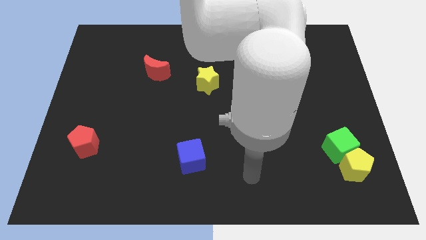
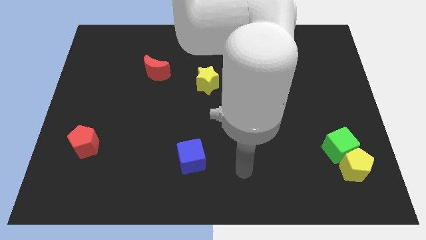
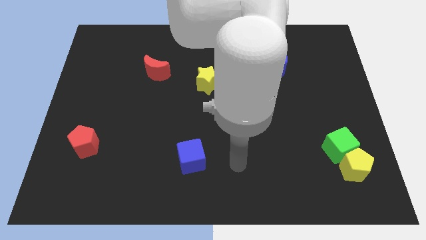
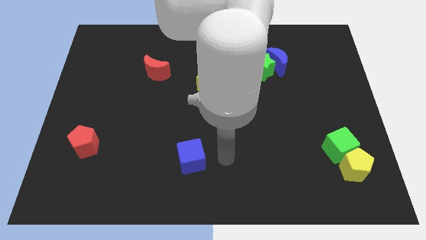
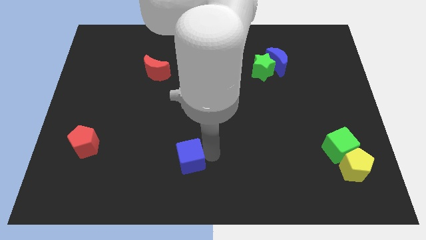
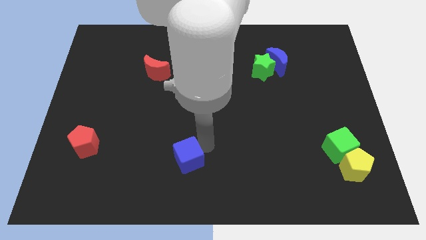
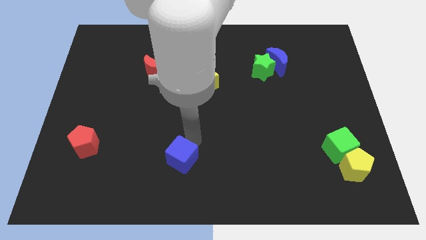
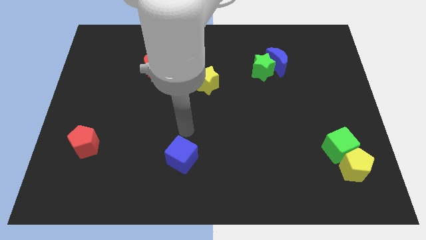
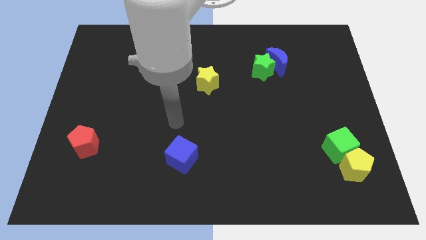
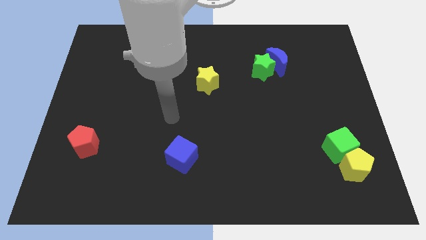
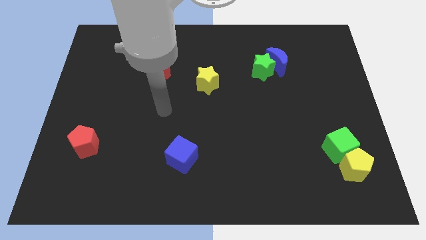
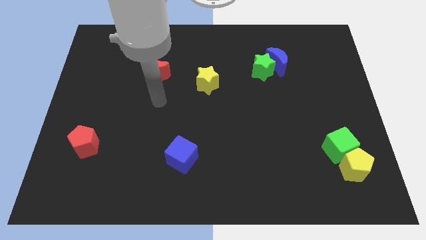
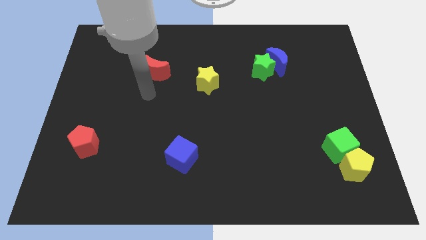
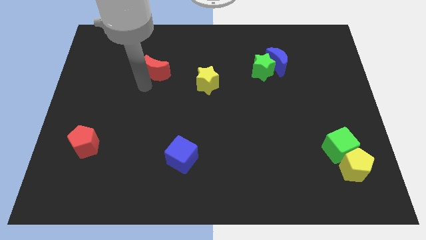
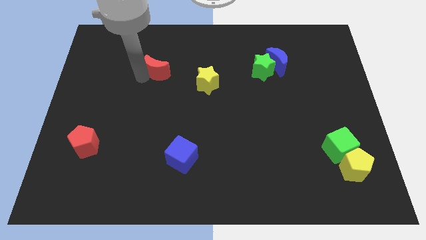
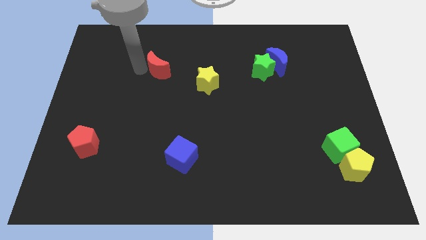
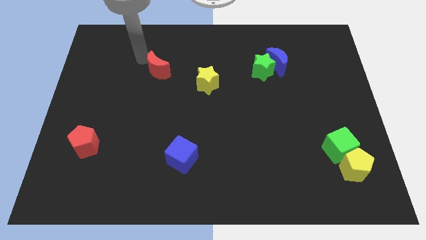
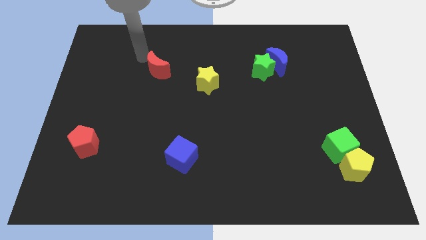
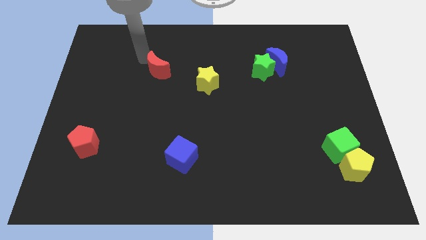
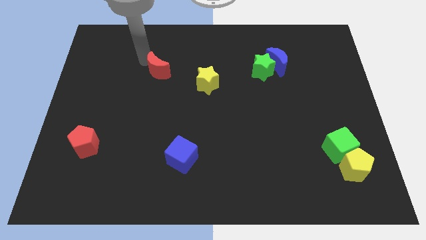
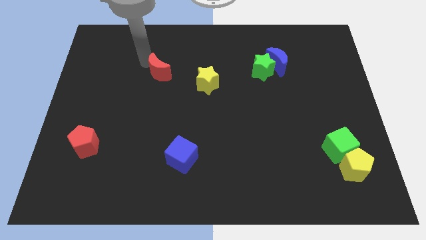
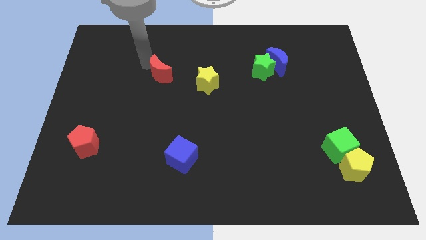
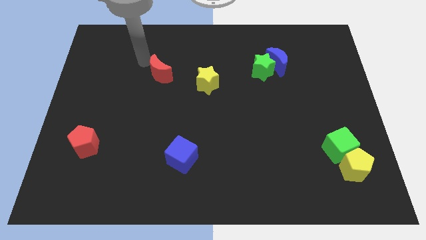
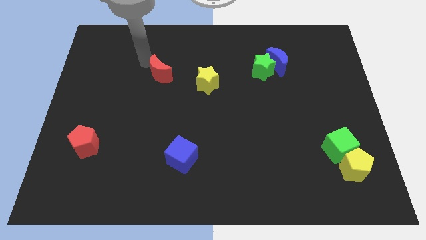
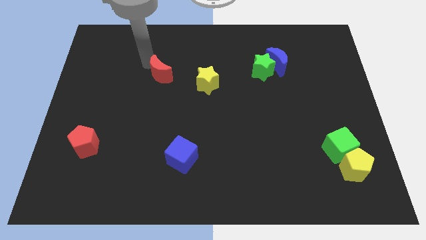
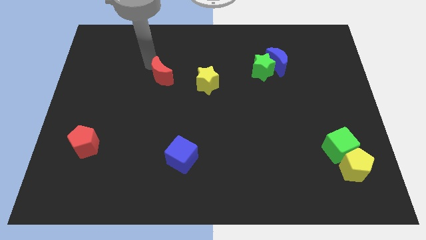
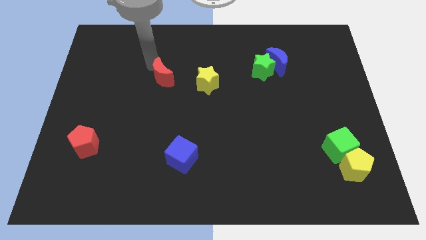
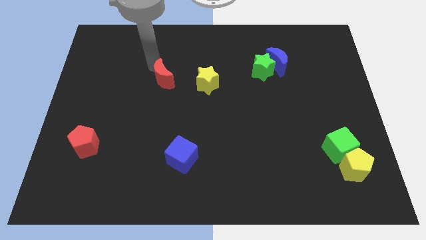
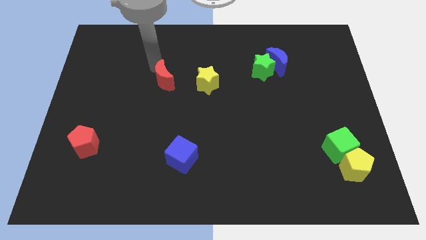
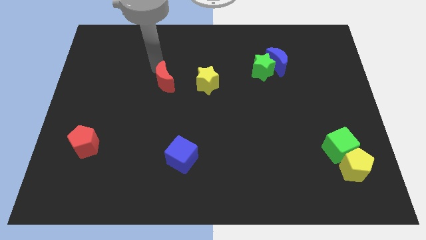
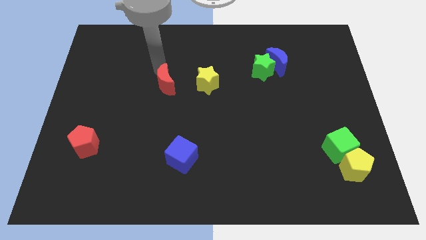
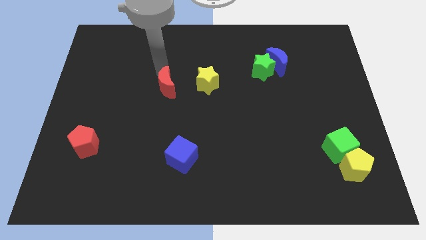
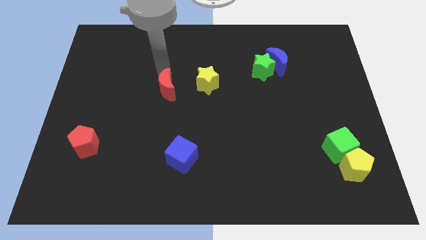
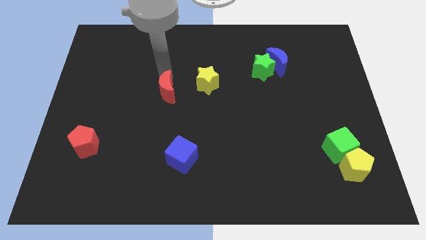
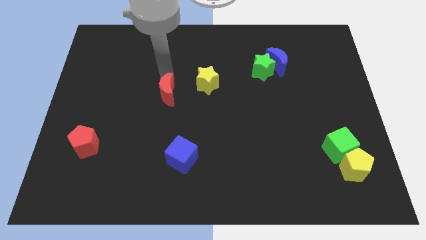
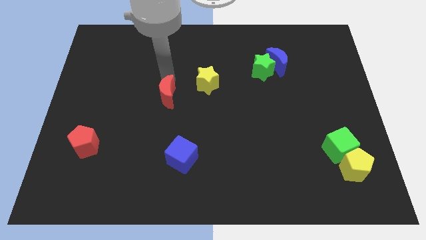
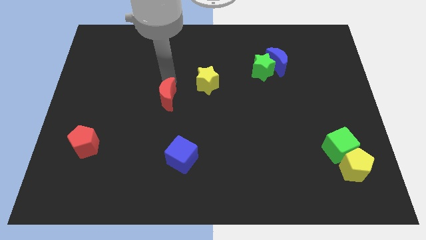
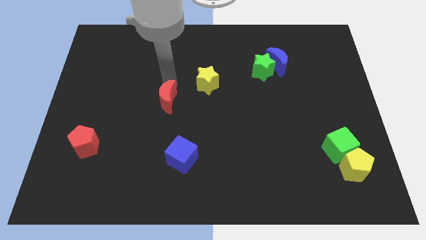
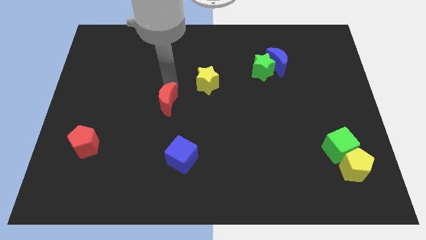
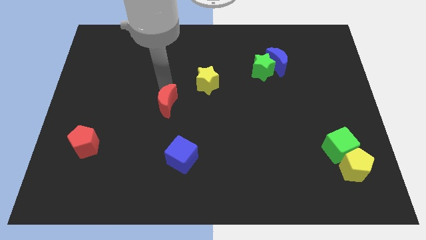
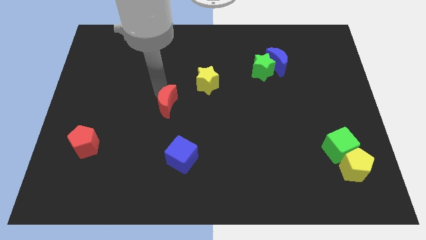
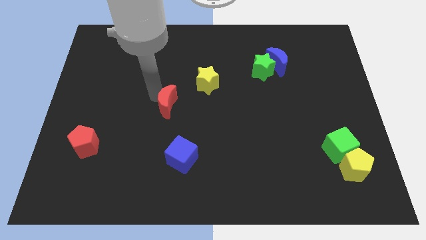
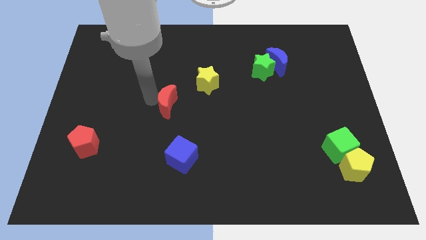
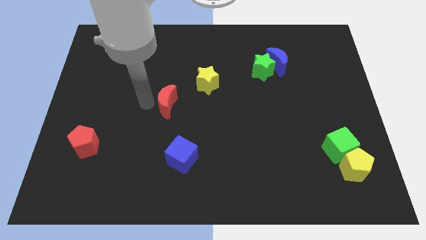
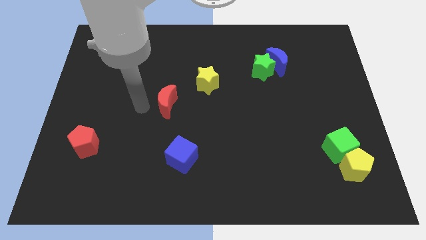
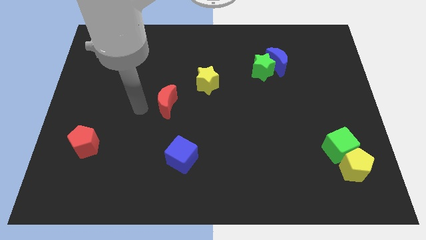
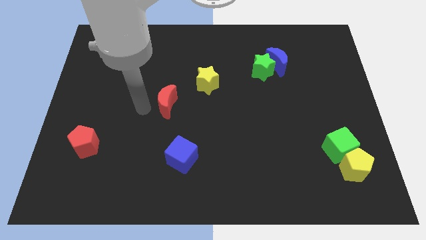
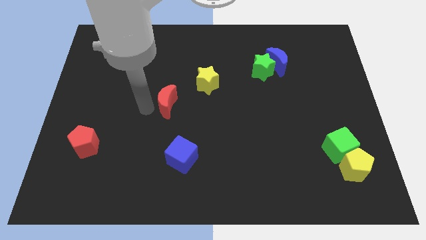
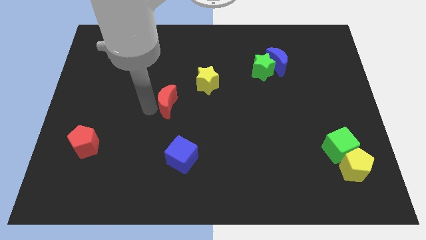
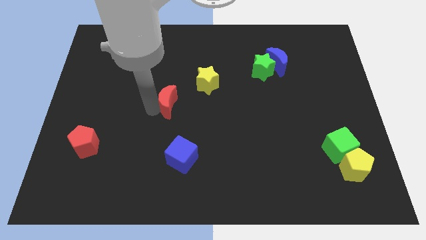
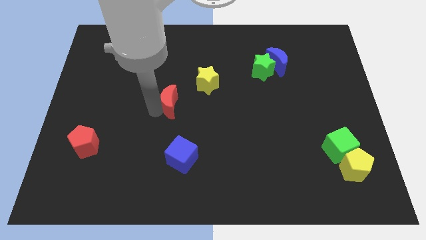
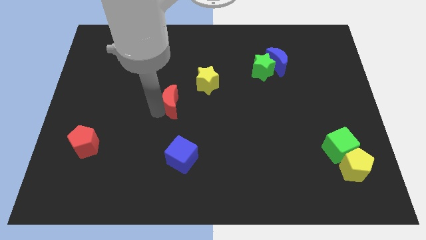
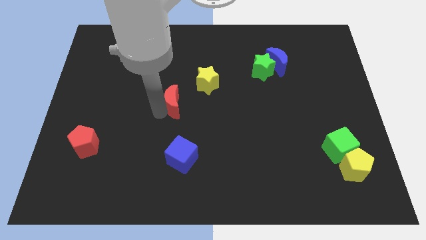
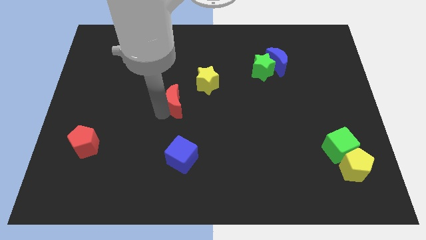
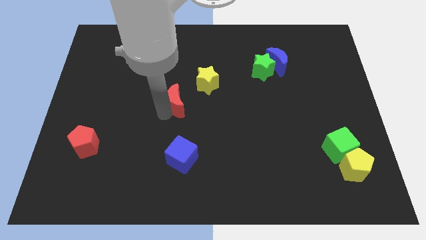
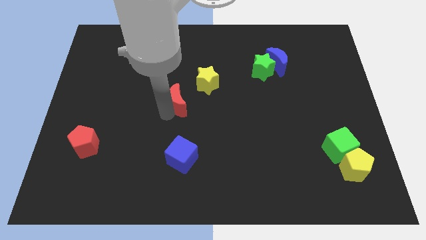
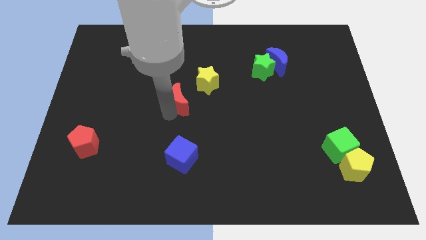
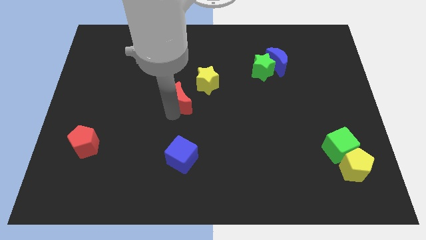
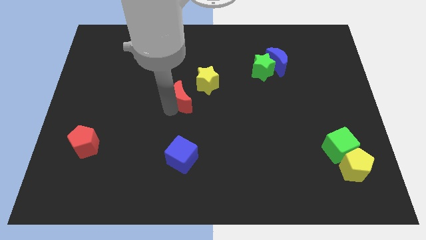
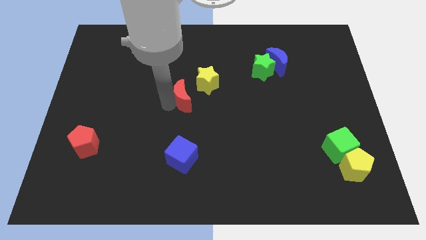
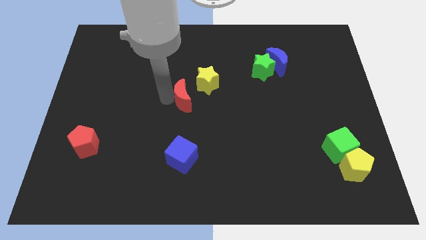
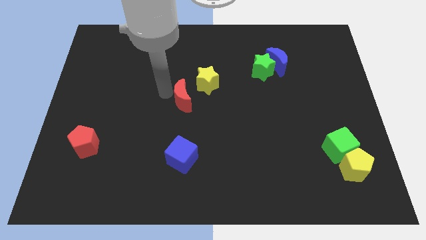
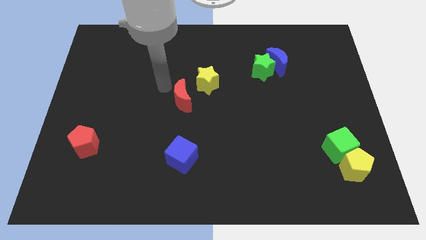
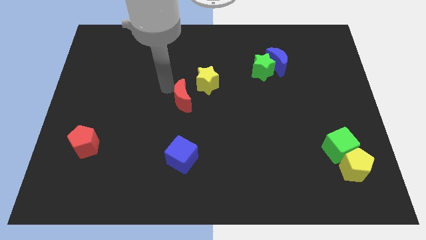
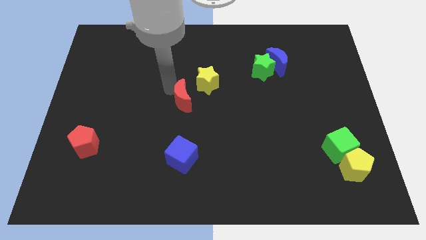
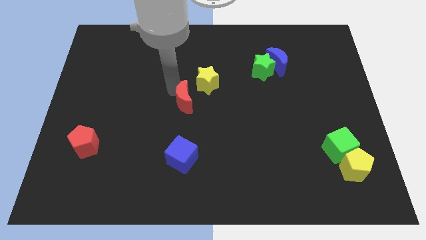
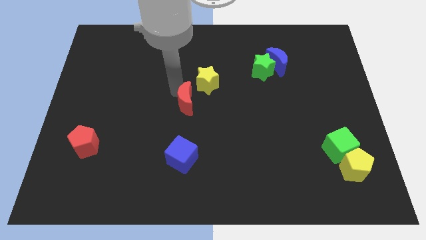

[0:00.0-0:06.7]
move the red moon below the yellow star
